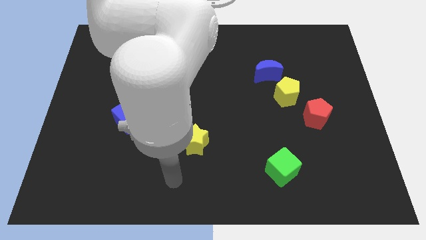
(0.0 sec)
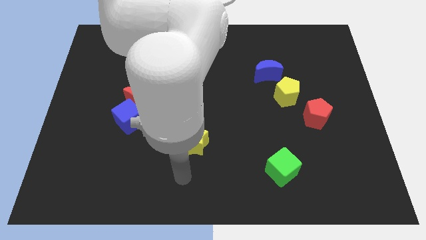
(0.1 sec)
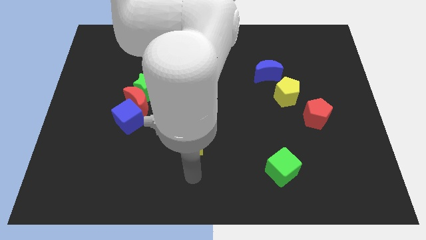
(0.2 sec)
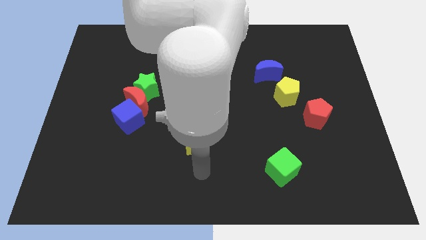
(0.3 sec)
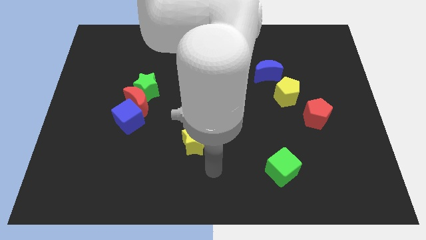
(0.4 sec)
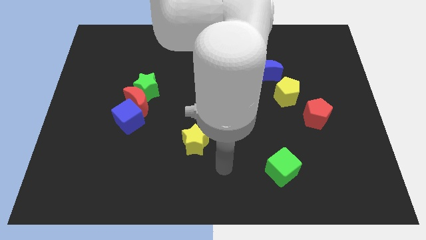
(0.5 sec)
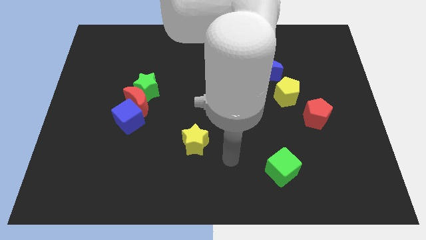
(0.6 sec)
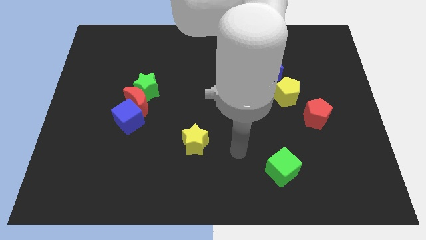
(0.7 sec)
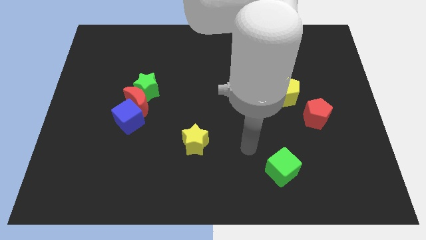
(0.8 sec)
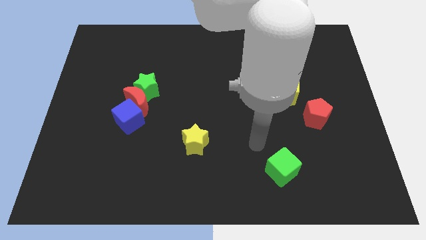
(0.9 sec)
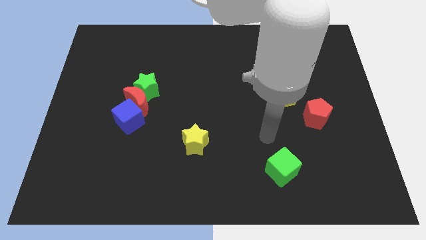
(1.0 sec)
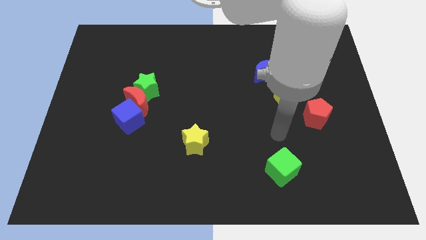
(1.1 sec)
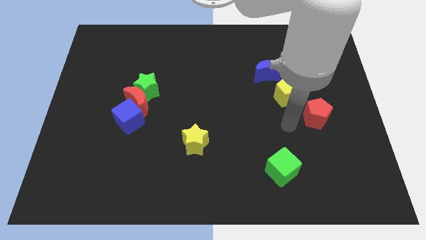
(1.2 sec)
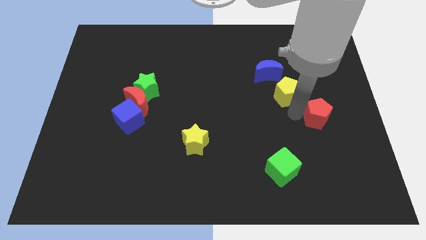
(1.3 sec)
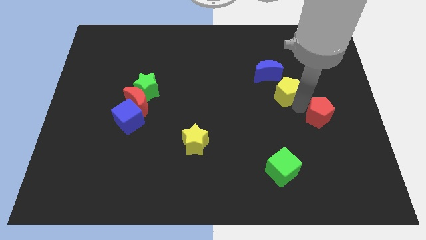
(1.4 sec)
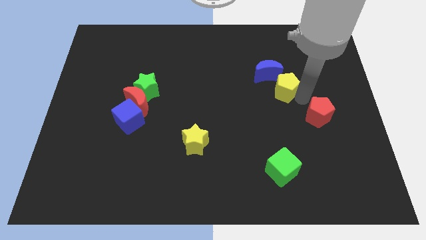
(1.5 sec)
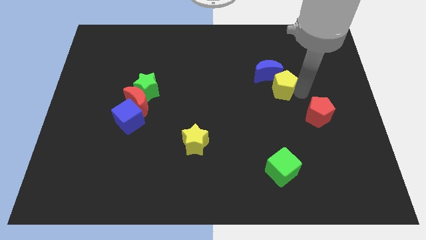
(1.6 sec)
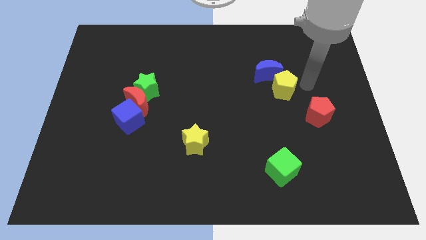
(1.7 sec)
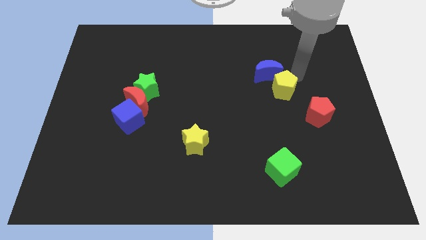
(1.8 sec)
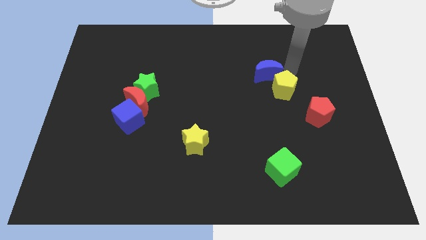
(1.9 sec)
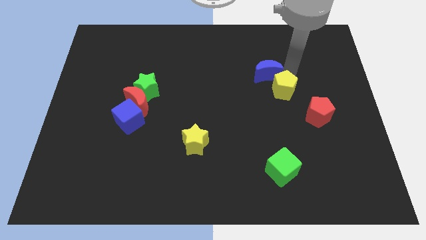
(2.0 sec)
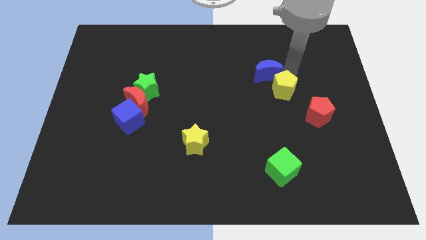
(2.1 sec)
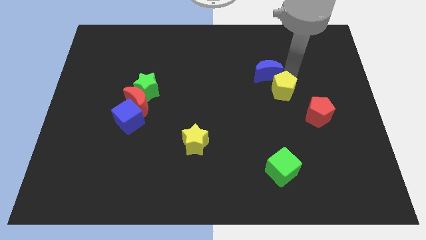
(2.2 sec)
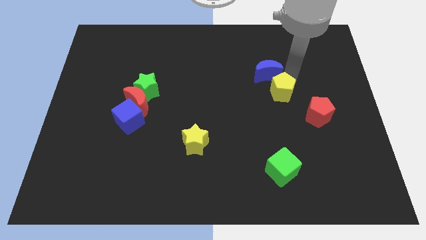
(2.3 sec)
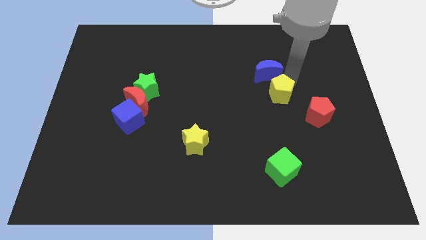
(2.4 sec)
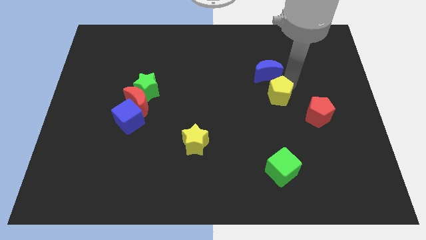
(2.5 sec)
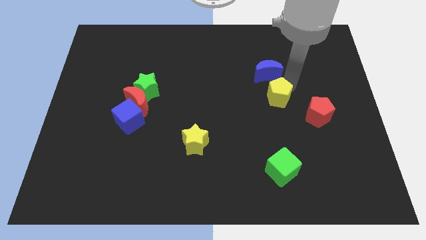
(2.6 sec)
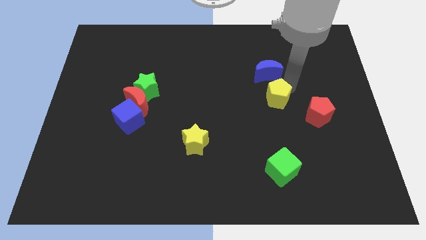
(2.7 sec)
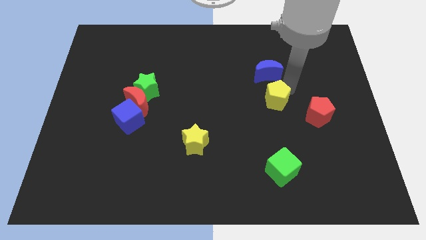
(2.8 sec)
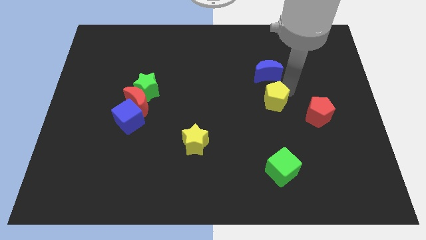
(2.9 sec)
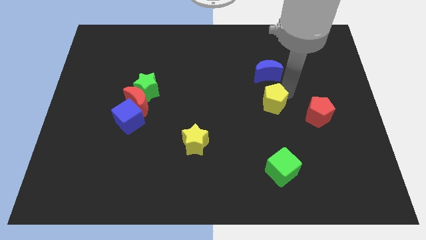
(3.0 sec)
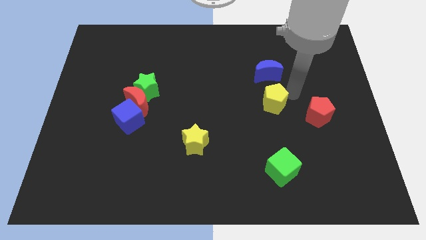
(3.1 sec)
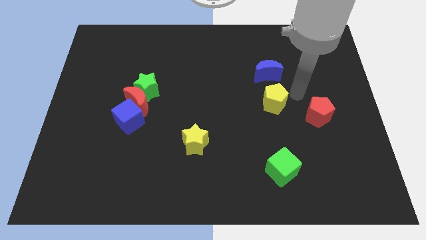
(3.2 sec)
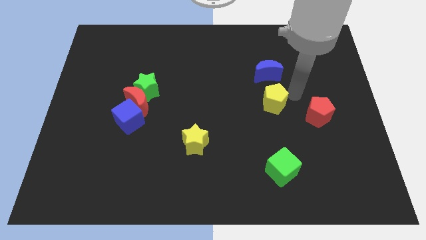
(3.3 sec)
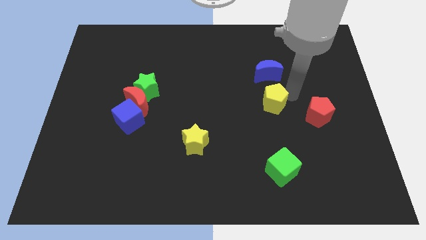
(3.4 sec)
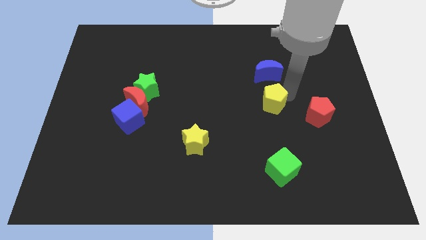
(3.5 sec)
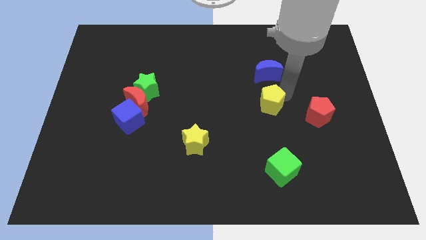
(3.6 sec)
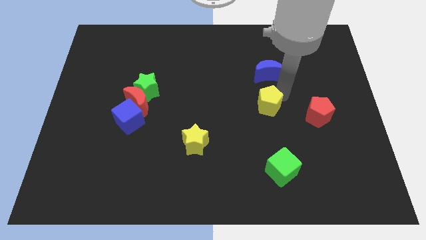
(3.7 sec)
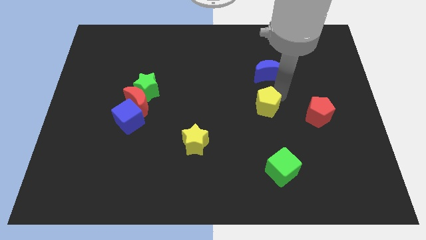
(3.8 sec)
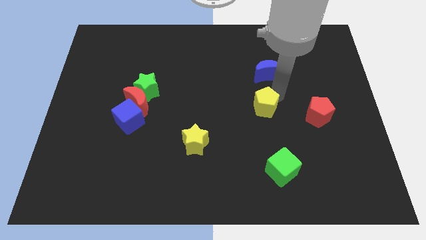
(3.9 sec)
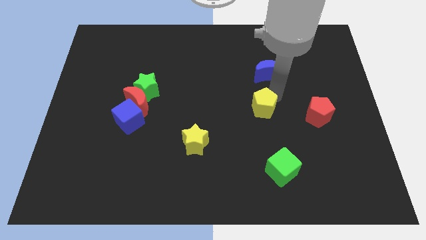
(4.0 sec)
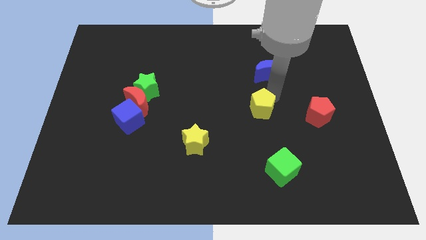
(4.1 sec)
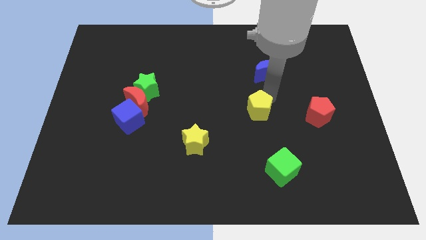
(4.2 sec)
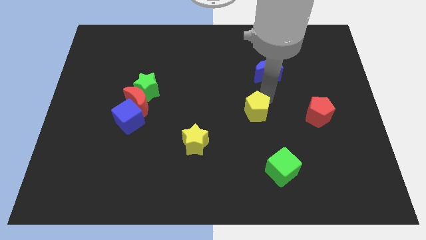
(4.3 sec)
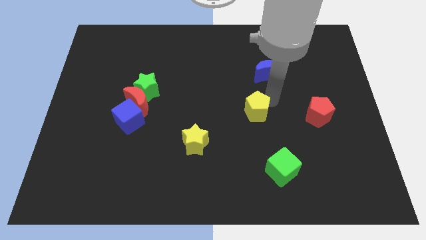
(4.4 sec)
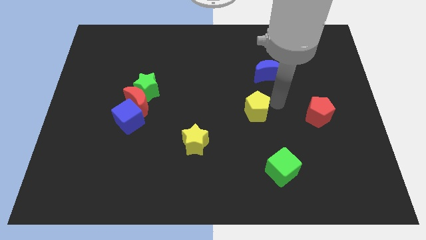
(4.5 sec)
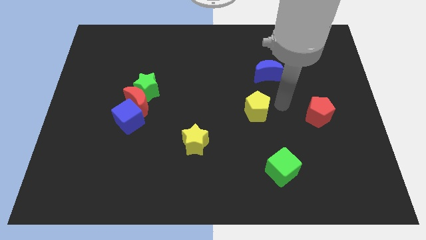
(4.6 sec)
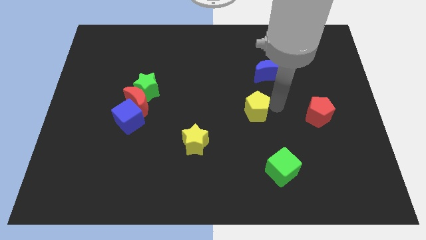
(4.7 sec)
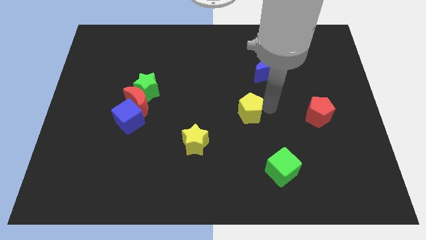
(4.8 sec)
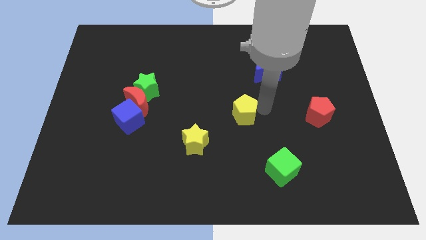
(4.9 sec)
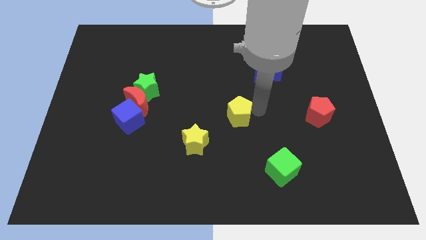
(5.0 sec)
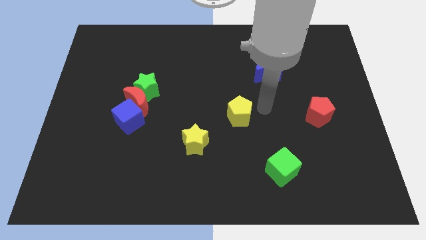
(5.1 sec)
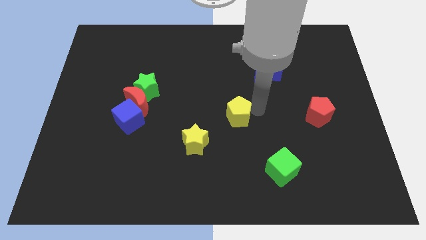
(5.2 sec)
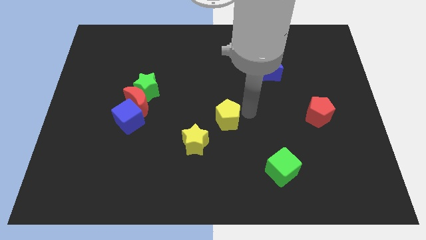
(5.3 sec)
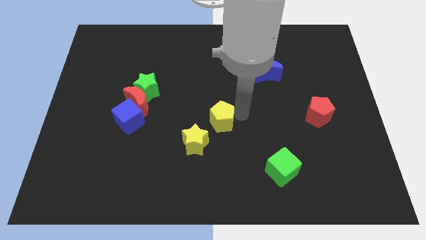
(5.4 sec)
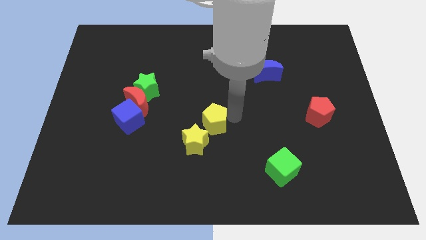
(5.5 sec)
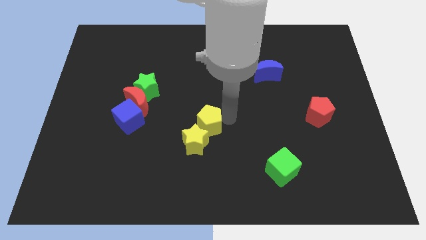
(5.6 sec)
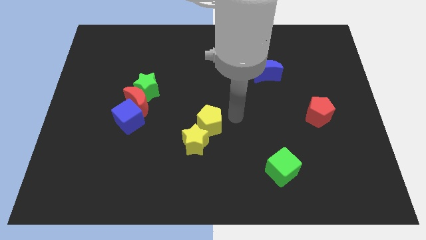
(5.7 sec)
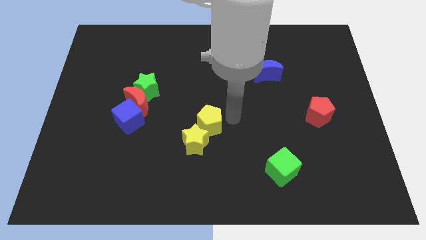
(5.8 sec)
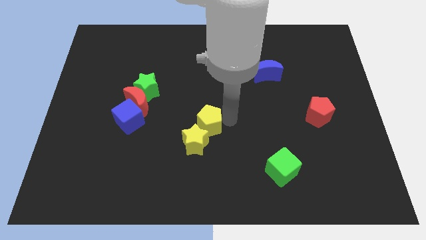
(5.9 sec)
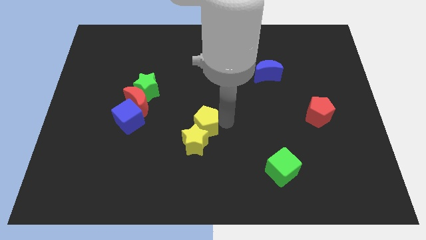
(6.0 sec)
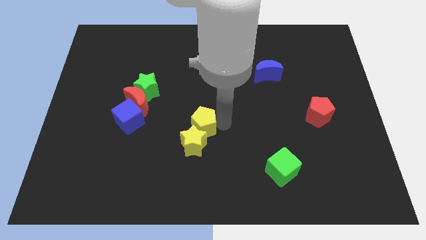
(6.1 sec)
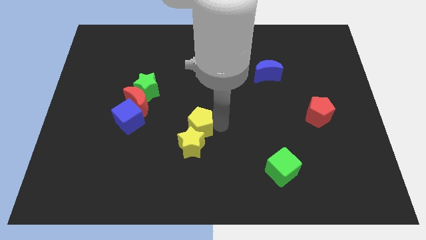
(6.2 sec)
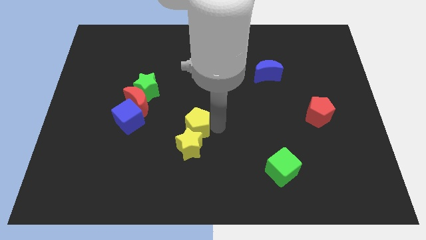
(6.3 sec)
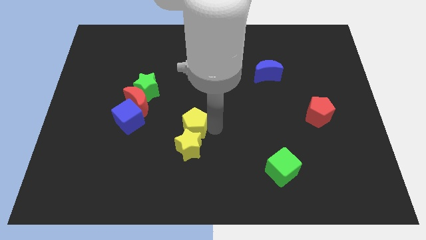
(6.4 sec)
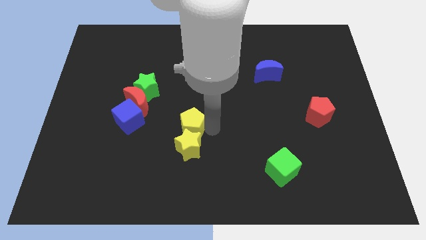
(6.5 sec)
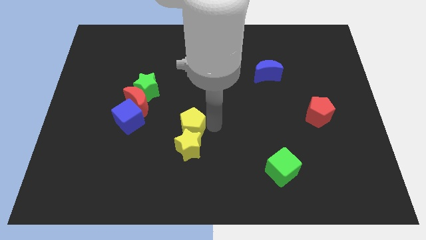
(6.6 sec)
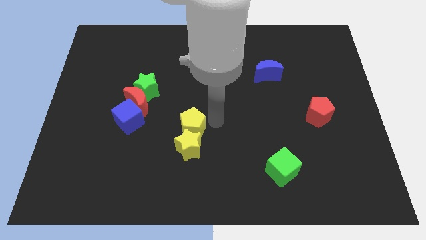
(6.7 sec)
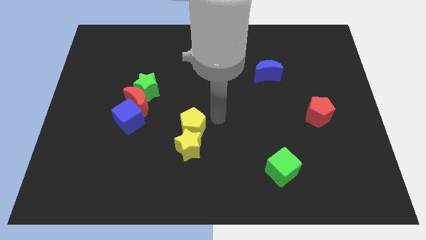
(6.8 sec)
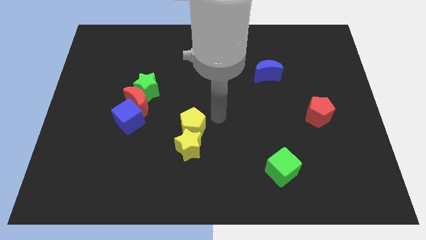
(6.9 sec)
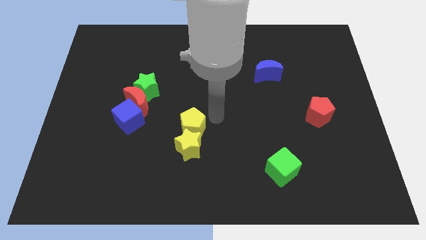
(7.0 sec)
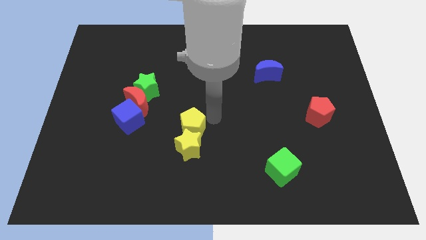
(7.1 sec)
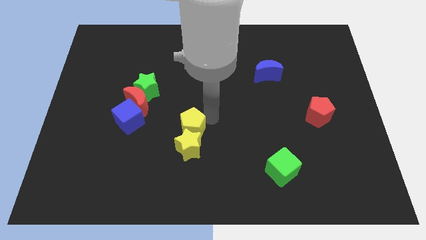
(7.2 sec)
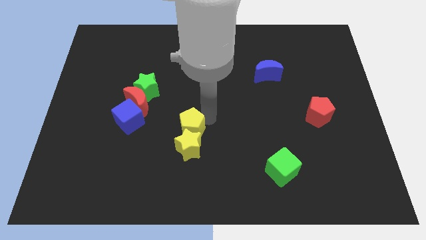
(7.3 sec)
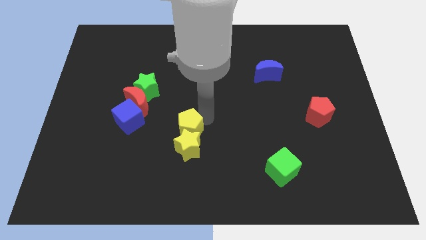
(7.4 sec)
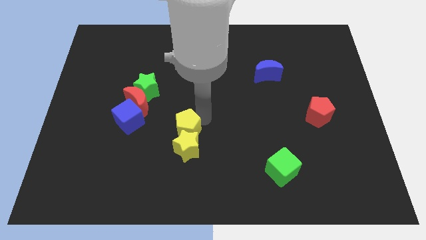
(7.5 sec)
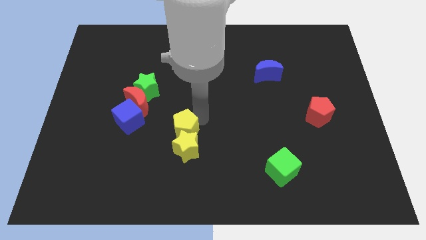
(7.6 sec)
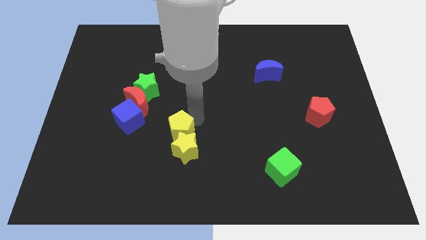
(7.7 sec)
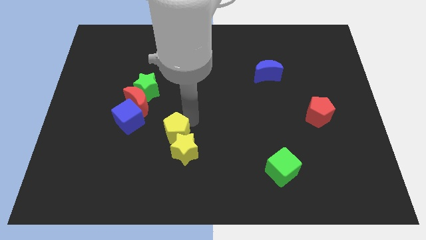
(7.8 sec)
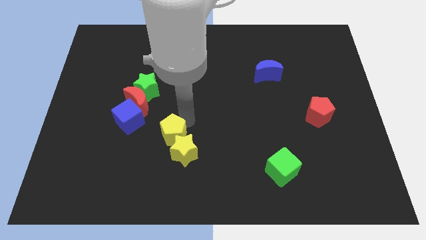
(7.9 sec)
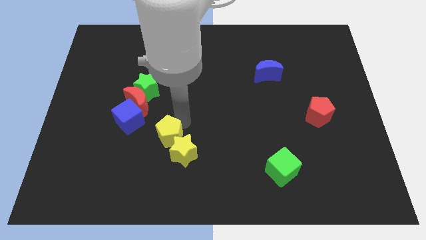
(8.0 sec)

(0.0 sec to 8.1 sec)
put the yellow pentagon left of the yellow star
